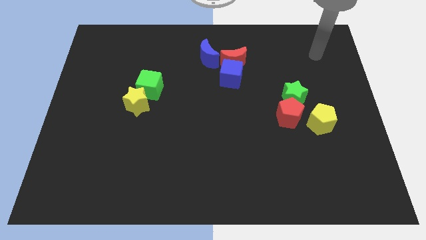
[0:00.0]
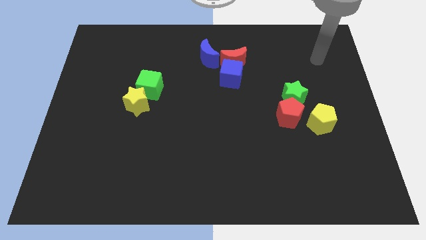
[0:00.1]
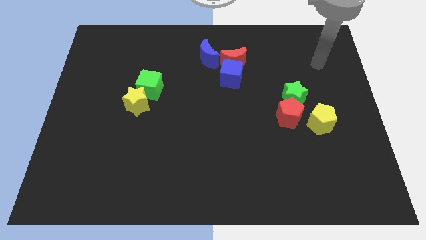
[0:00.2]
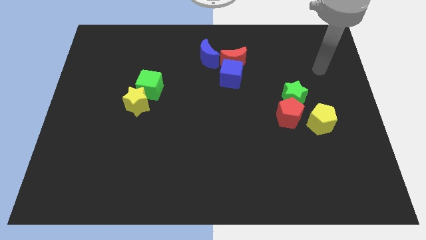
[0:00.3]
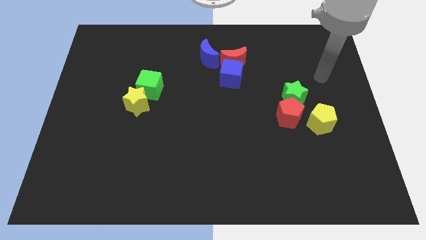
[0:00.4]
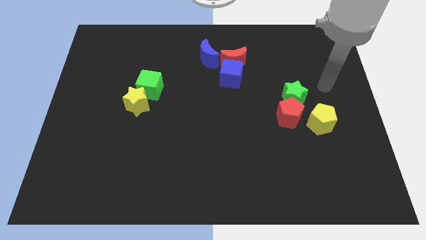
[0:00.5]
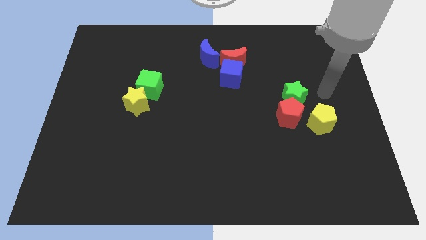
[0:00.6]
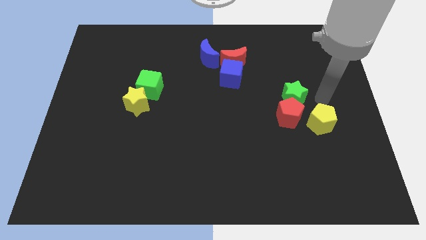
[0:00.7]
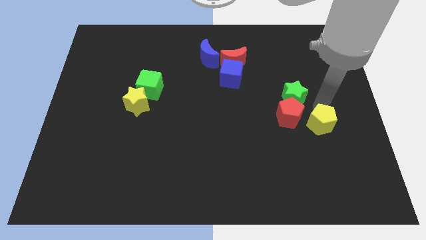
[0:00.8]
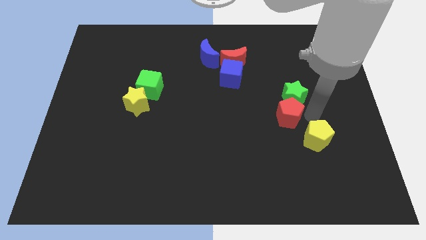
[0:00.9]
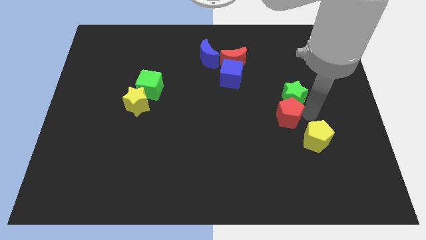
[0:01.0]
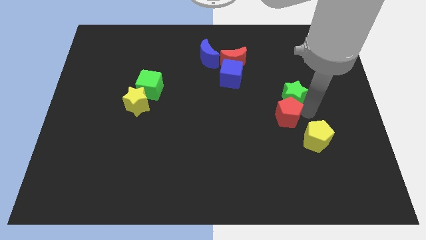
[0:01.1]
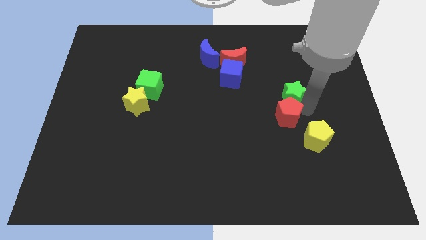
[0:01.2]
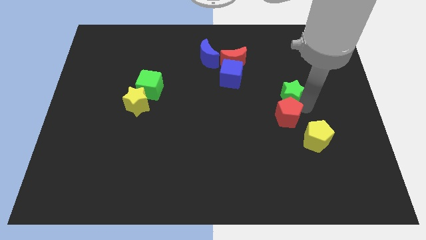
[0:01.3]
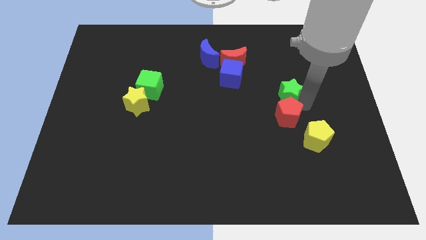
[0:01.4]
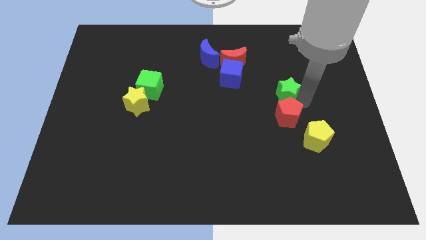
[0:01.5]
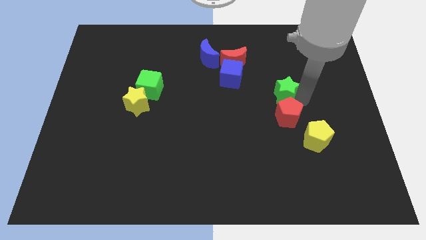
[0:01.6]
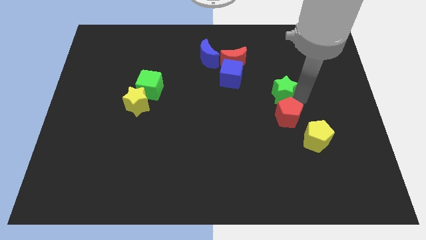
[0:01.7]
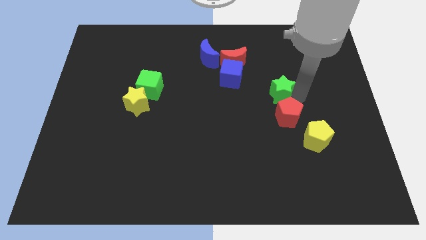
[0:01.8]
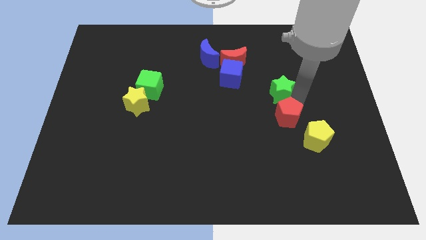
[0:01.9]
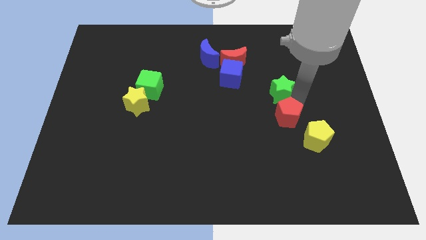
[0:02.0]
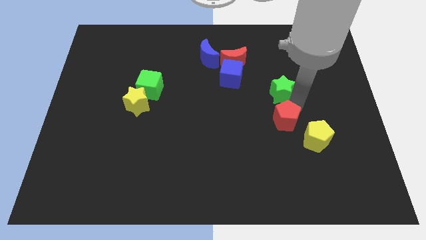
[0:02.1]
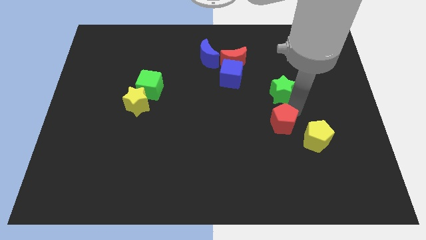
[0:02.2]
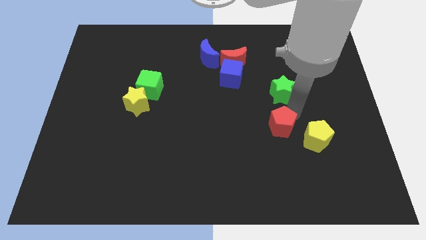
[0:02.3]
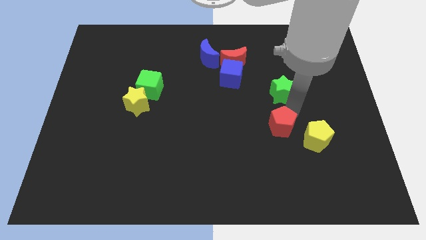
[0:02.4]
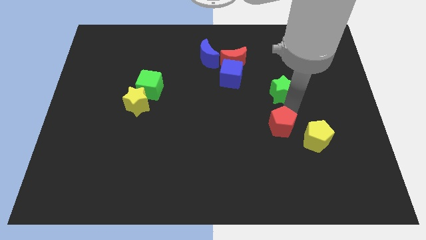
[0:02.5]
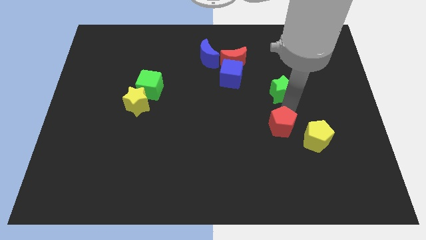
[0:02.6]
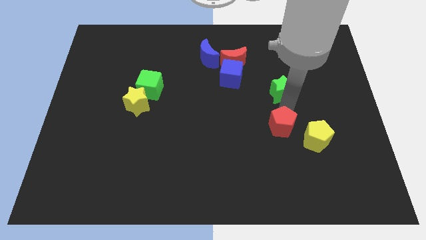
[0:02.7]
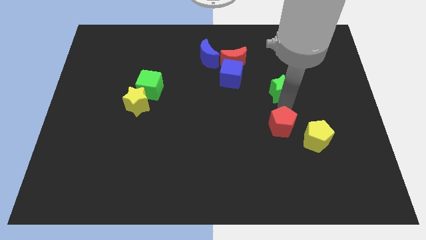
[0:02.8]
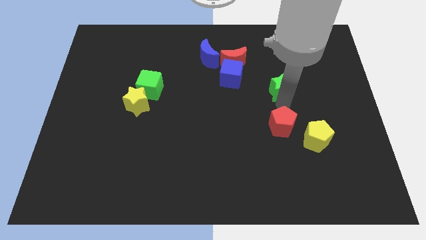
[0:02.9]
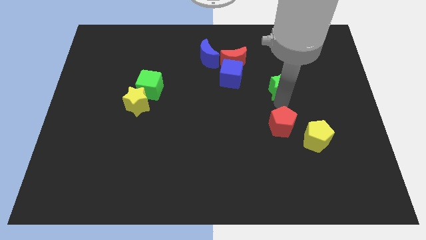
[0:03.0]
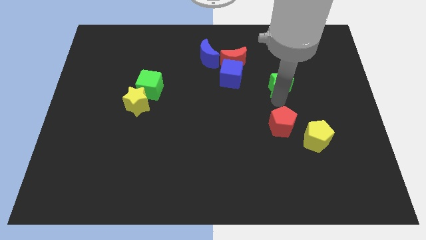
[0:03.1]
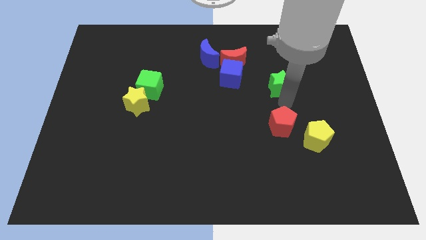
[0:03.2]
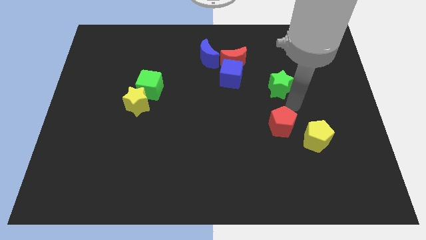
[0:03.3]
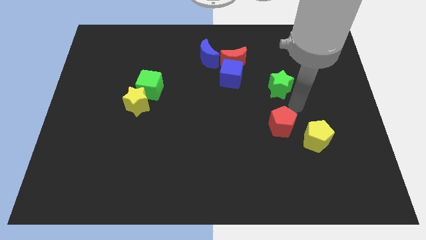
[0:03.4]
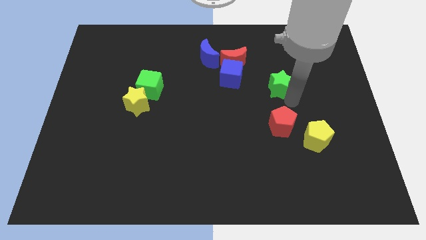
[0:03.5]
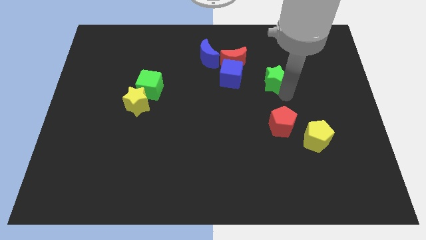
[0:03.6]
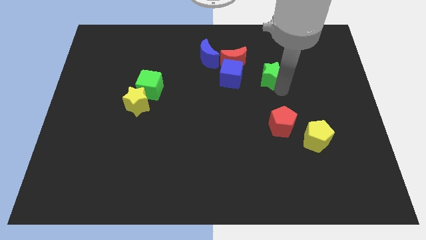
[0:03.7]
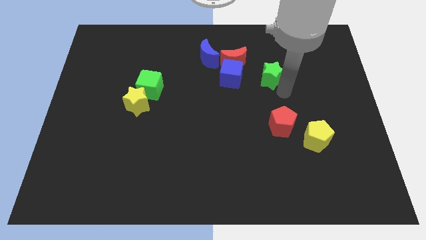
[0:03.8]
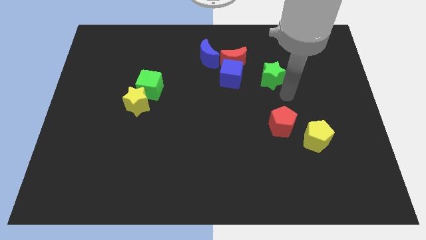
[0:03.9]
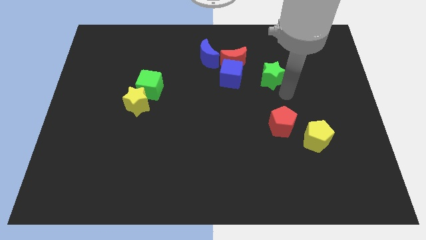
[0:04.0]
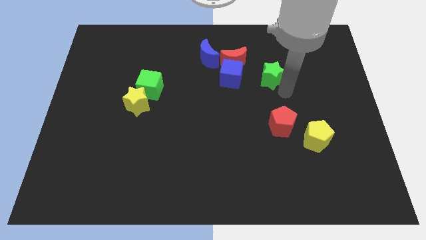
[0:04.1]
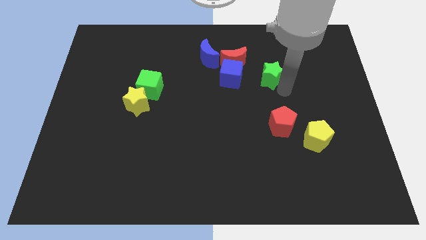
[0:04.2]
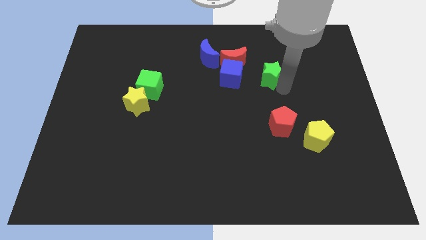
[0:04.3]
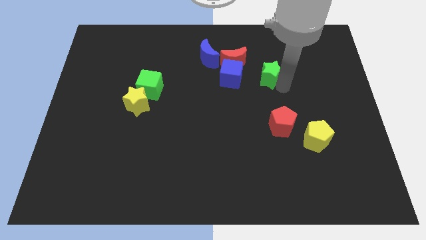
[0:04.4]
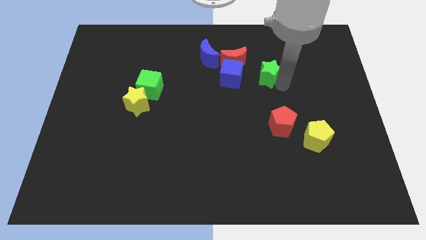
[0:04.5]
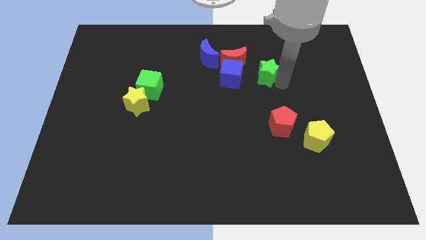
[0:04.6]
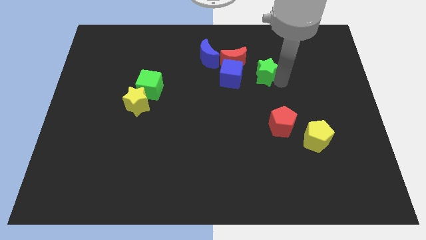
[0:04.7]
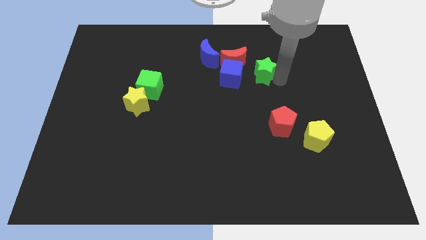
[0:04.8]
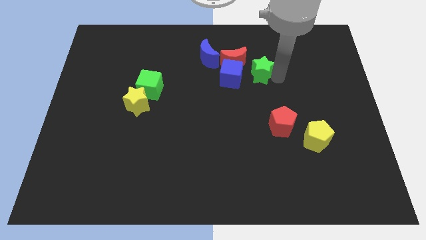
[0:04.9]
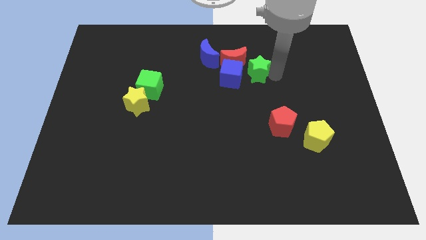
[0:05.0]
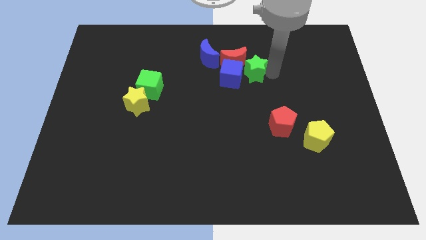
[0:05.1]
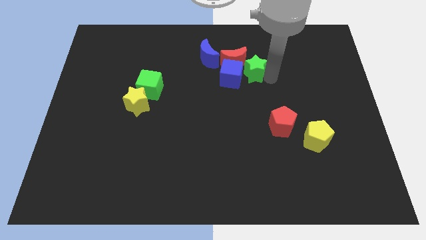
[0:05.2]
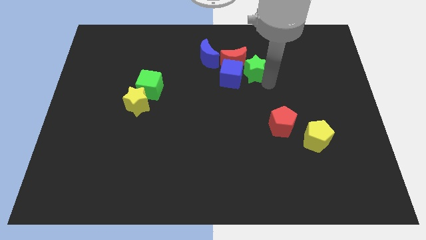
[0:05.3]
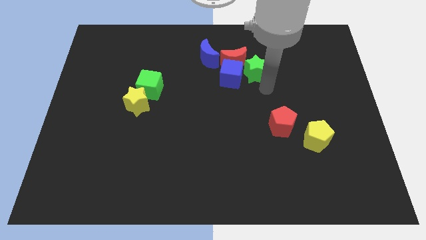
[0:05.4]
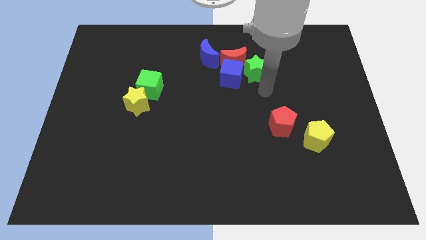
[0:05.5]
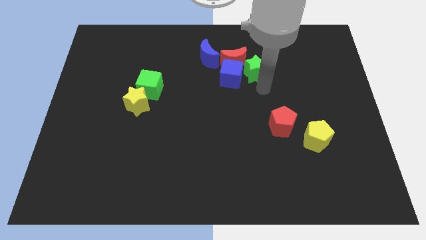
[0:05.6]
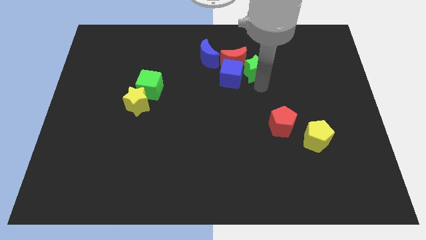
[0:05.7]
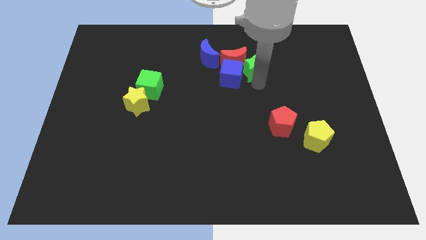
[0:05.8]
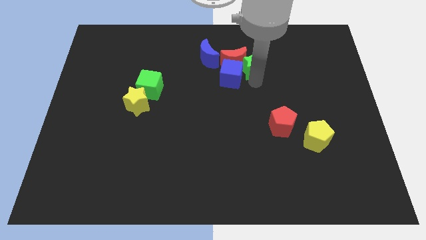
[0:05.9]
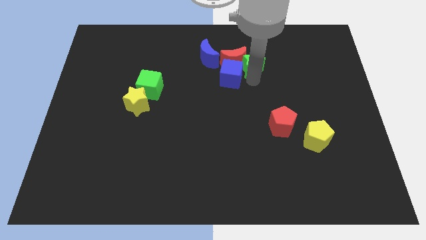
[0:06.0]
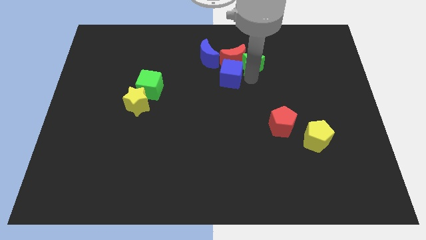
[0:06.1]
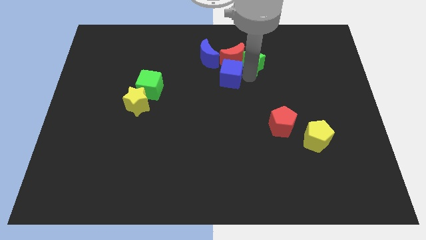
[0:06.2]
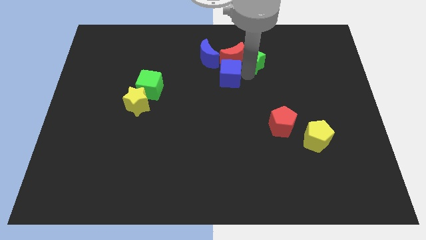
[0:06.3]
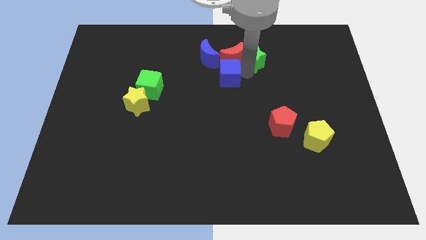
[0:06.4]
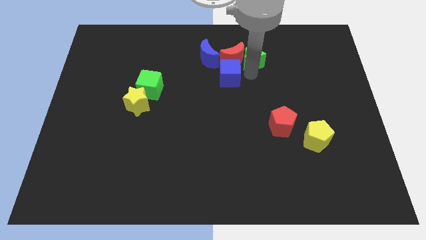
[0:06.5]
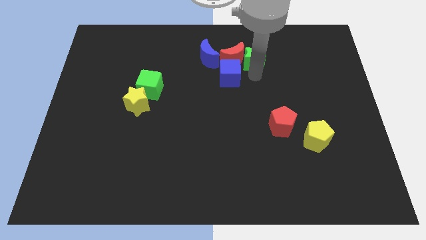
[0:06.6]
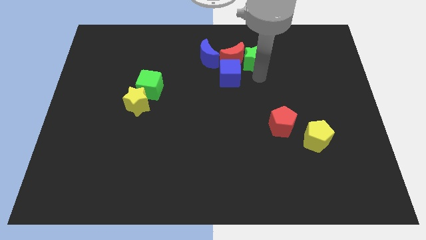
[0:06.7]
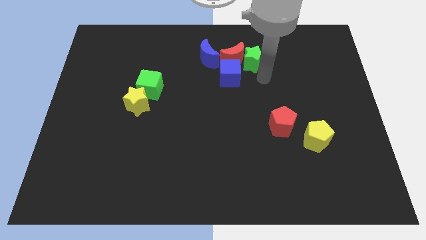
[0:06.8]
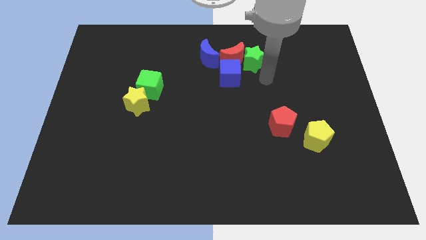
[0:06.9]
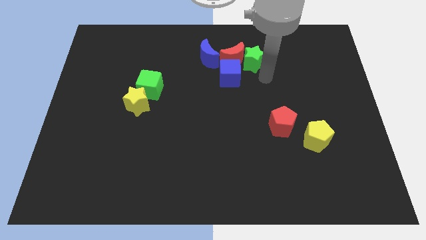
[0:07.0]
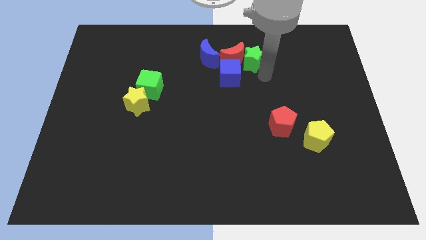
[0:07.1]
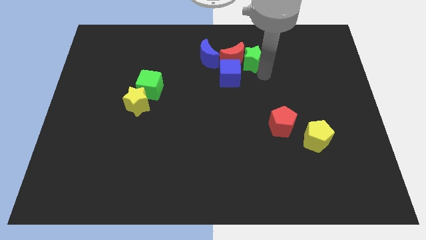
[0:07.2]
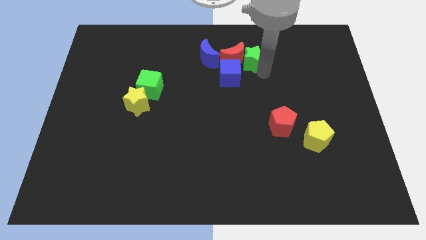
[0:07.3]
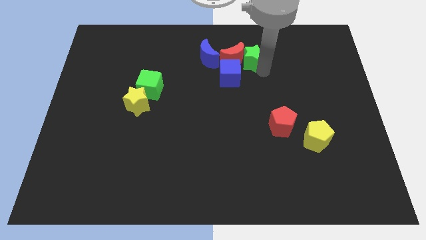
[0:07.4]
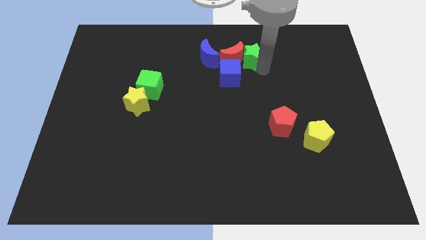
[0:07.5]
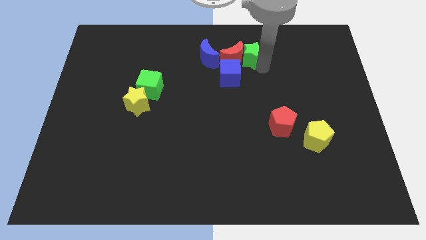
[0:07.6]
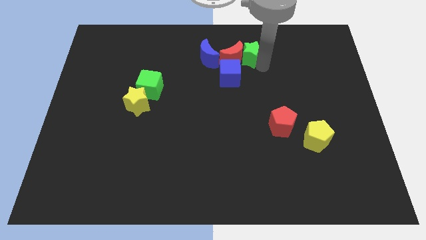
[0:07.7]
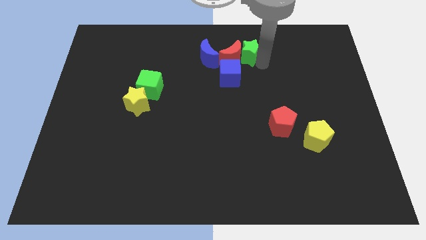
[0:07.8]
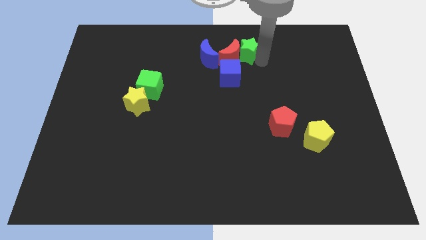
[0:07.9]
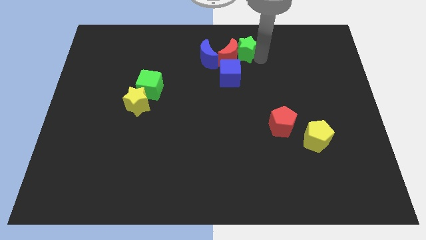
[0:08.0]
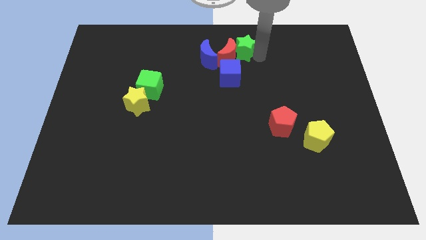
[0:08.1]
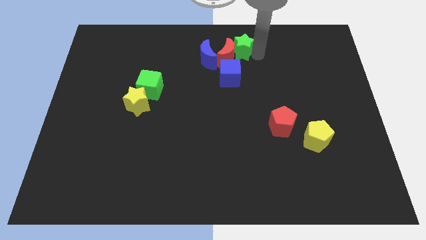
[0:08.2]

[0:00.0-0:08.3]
move the green star to the top side
